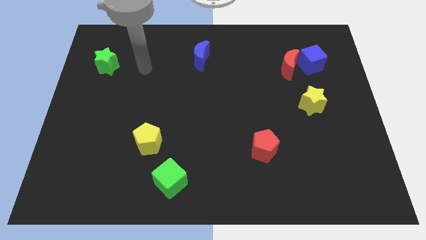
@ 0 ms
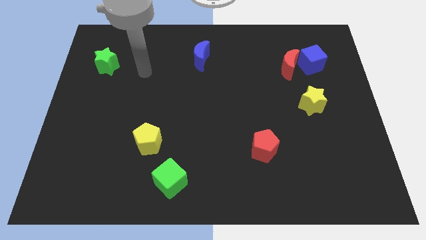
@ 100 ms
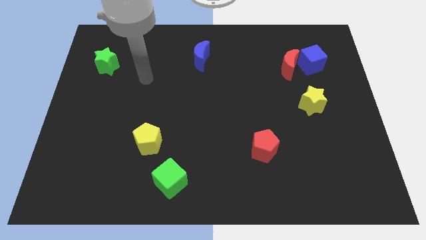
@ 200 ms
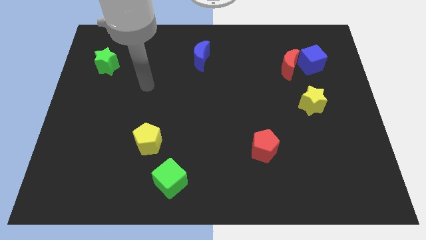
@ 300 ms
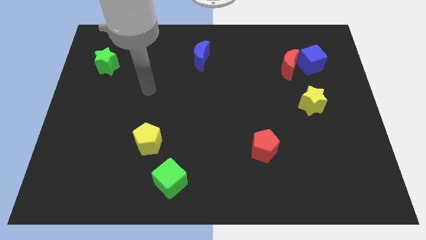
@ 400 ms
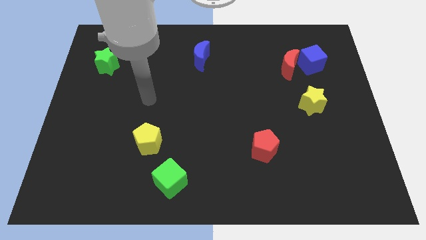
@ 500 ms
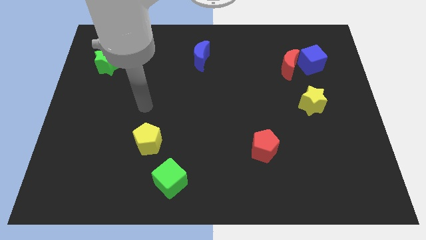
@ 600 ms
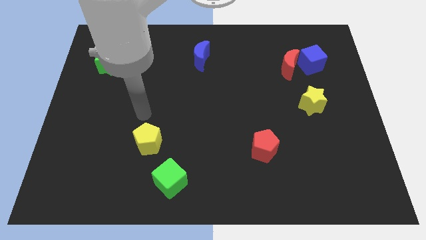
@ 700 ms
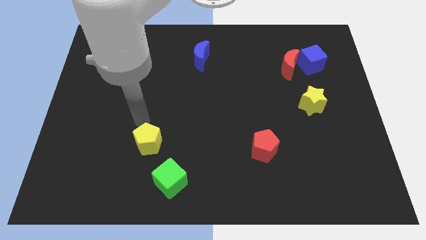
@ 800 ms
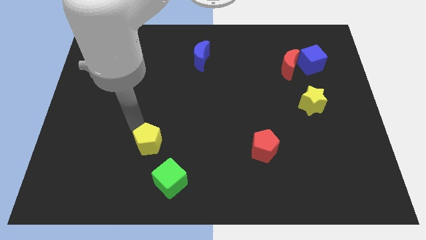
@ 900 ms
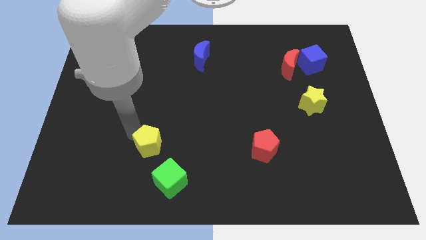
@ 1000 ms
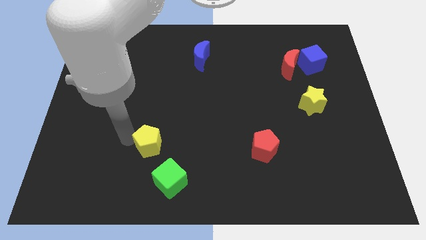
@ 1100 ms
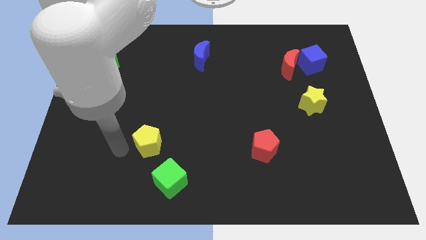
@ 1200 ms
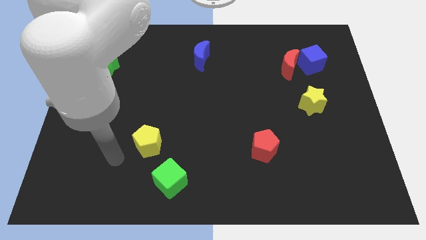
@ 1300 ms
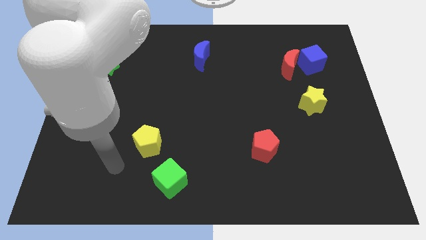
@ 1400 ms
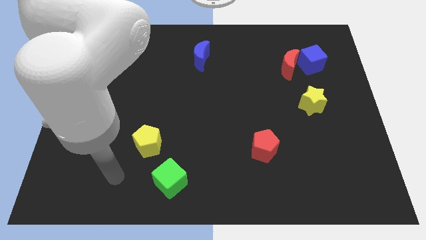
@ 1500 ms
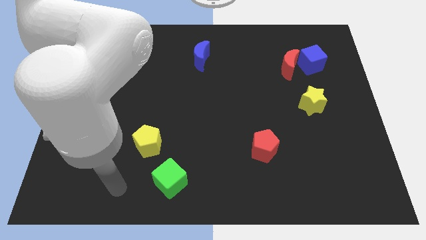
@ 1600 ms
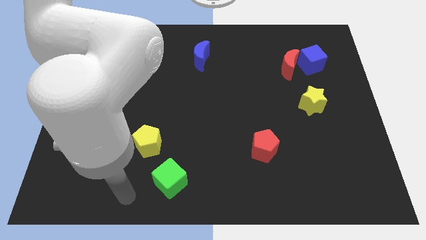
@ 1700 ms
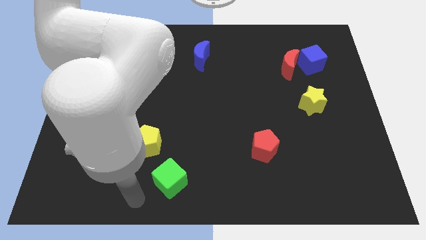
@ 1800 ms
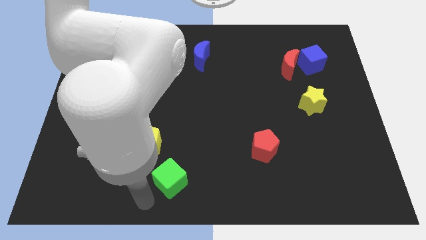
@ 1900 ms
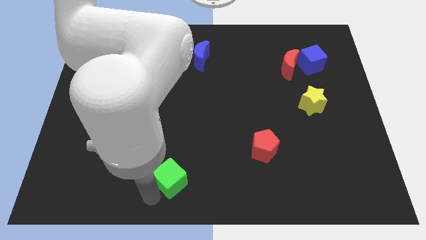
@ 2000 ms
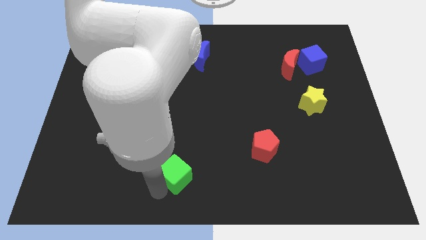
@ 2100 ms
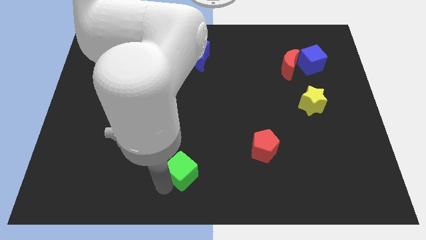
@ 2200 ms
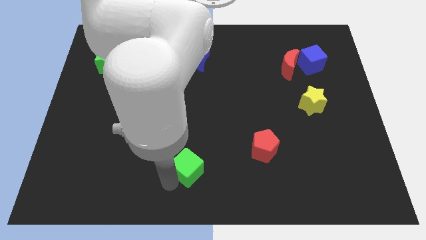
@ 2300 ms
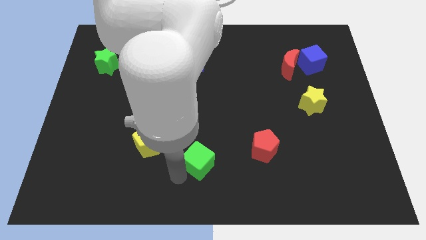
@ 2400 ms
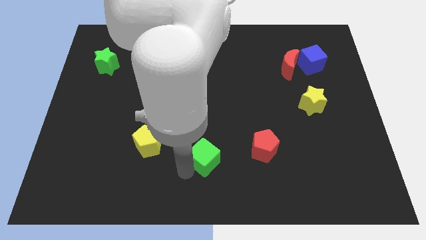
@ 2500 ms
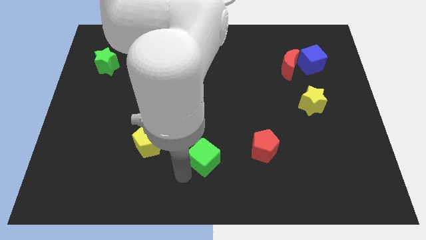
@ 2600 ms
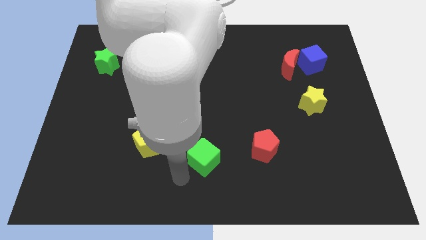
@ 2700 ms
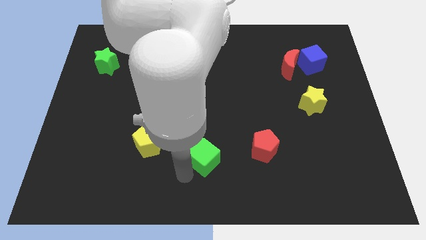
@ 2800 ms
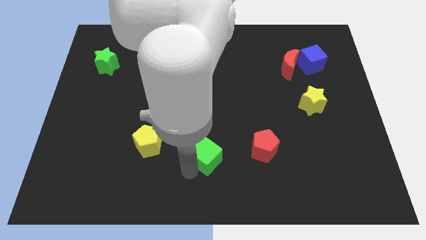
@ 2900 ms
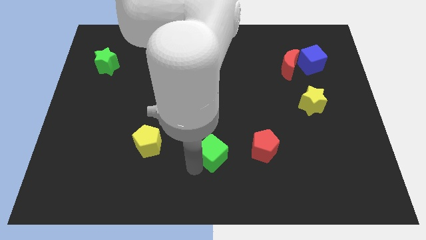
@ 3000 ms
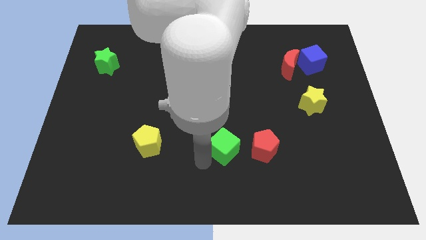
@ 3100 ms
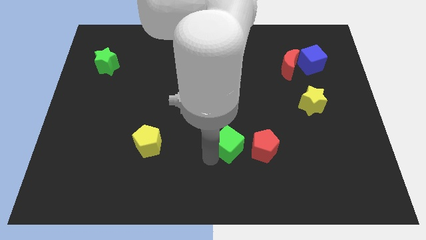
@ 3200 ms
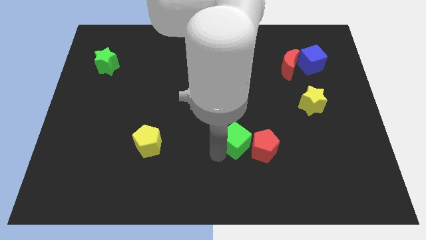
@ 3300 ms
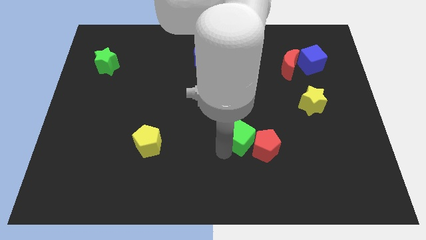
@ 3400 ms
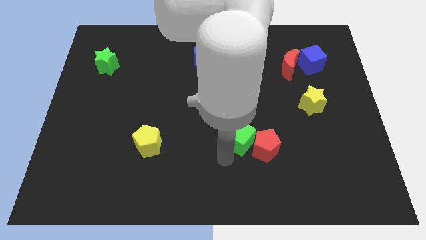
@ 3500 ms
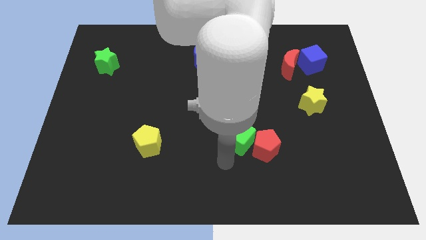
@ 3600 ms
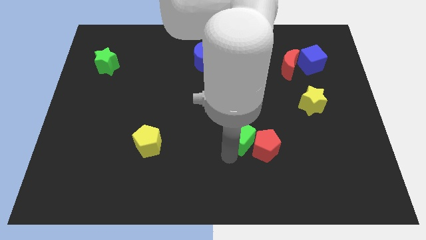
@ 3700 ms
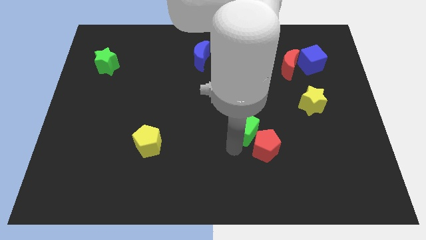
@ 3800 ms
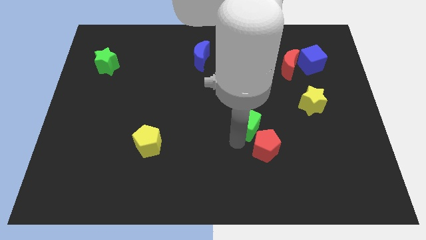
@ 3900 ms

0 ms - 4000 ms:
slide the green cube up and right diagonally

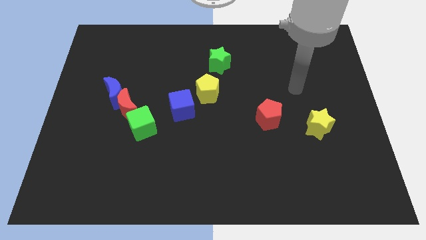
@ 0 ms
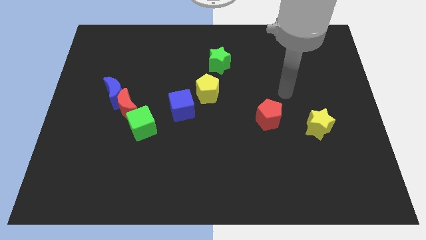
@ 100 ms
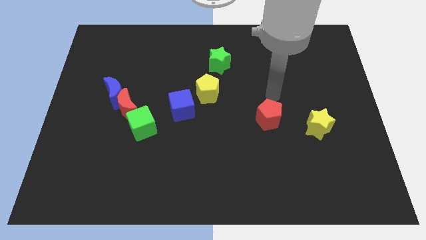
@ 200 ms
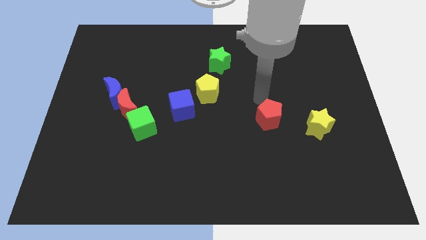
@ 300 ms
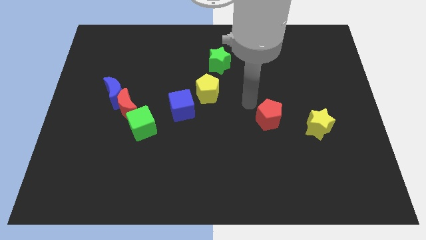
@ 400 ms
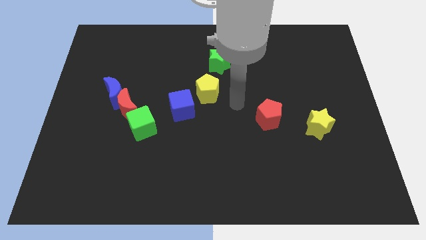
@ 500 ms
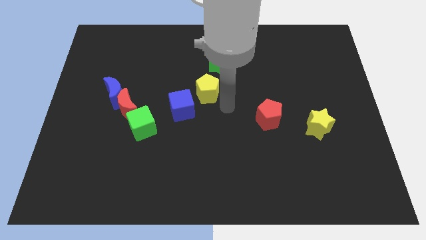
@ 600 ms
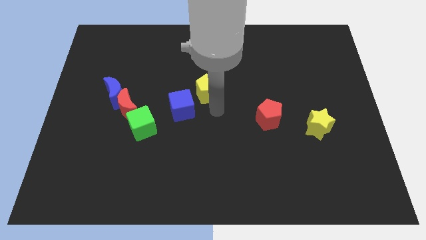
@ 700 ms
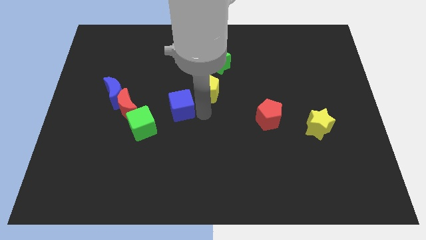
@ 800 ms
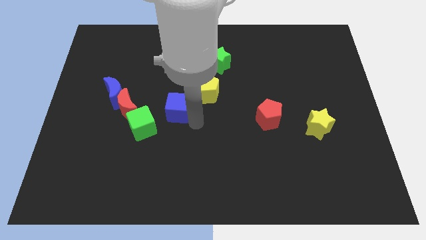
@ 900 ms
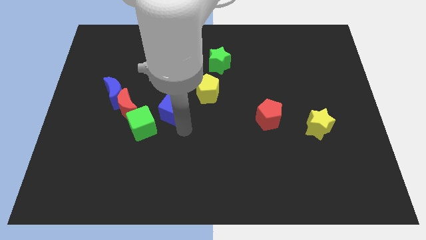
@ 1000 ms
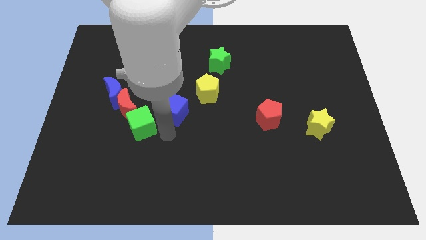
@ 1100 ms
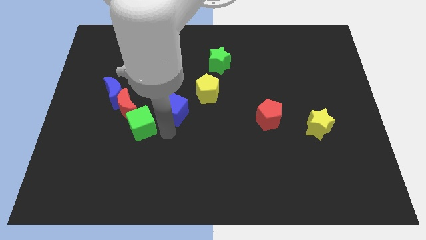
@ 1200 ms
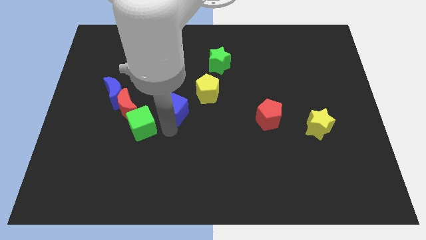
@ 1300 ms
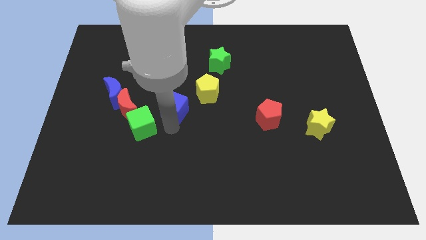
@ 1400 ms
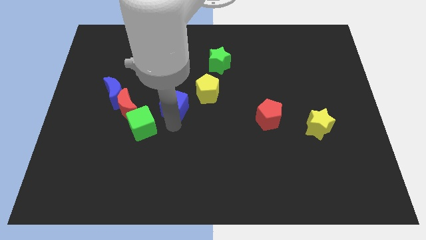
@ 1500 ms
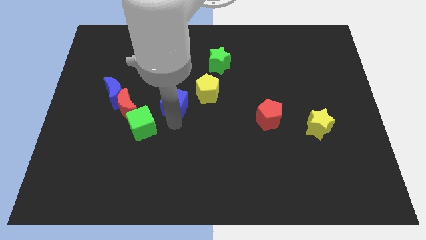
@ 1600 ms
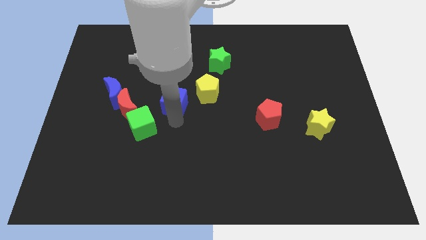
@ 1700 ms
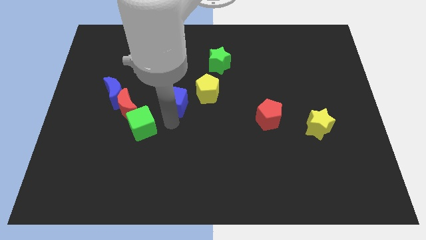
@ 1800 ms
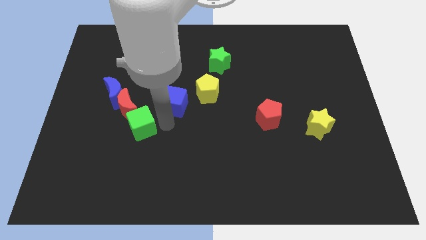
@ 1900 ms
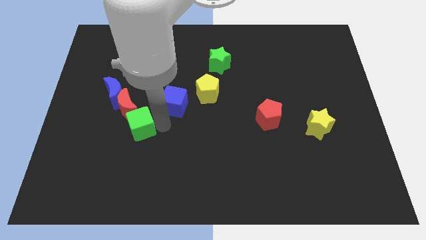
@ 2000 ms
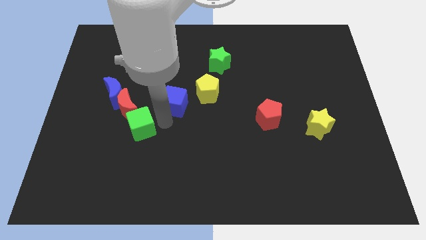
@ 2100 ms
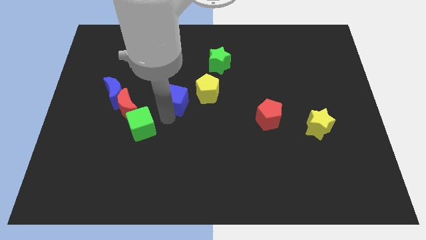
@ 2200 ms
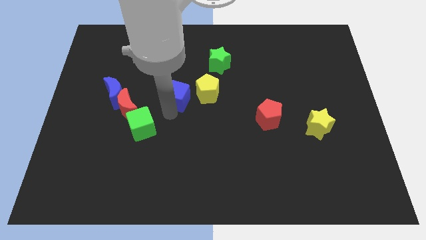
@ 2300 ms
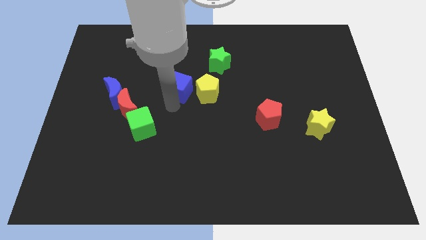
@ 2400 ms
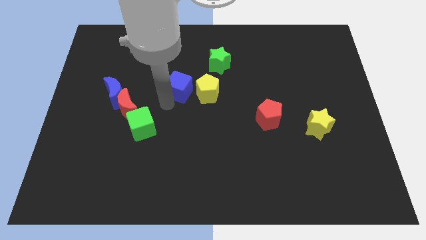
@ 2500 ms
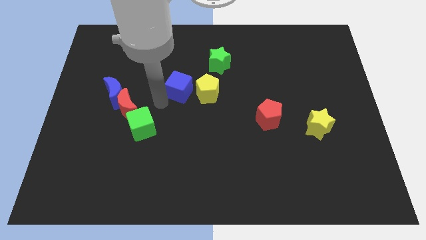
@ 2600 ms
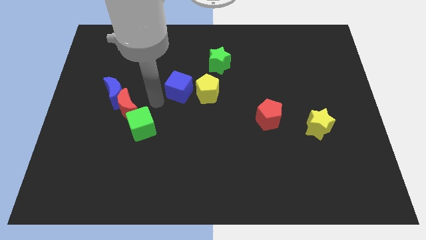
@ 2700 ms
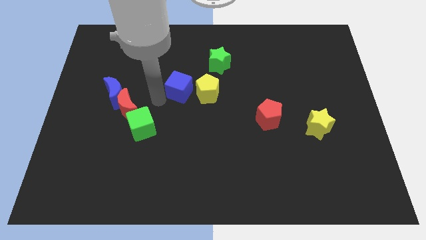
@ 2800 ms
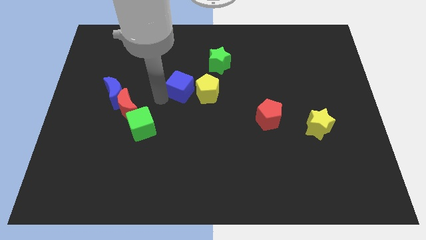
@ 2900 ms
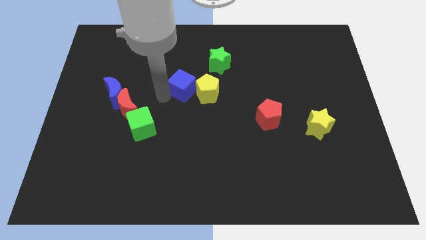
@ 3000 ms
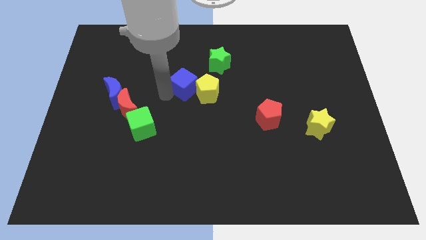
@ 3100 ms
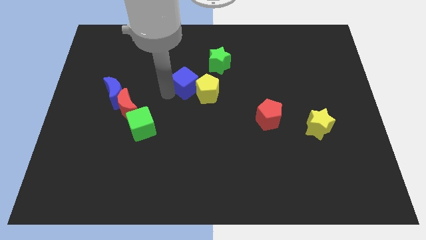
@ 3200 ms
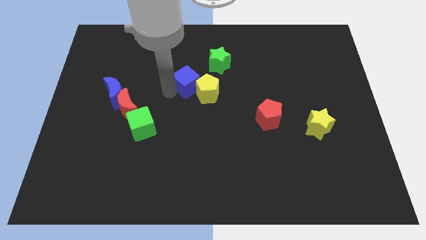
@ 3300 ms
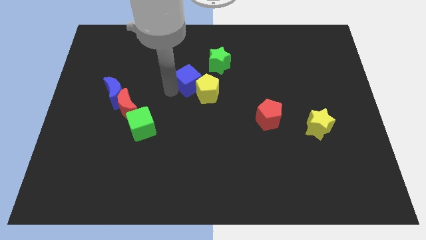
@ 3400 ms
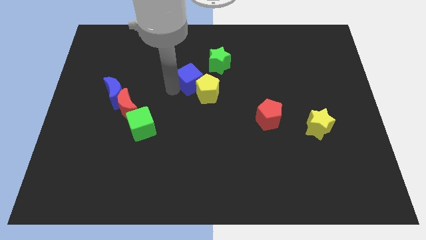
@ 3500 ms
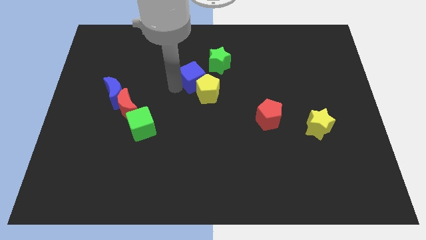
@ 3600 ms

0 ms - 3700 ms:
slightly slide the blue cube up and then right
